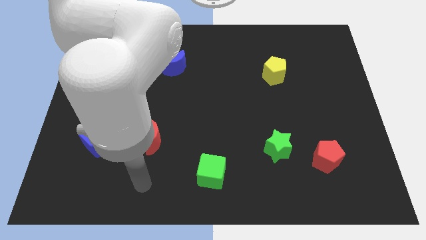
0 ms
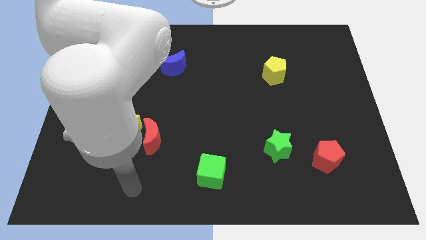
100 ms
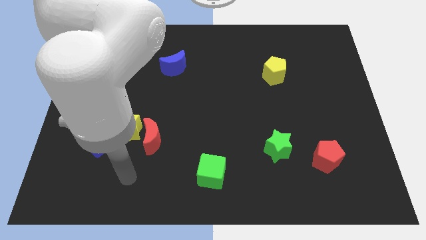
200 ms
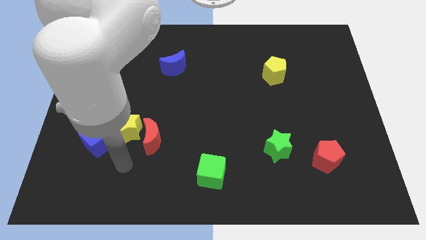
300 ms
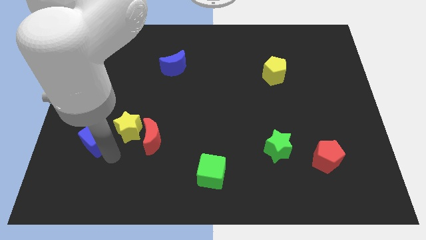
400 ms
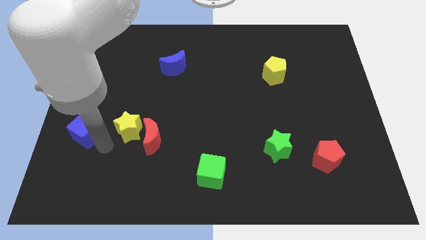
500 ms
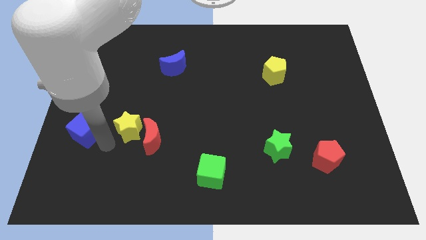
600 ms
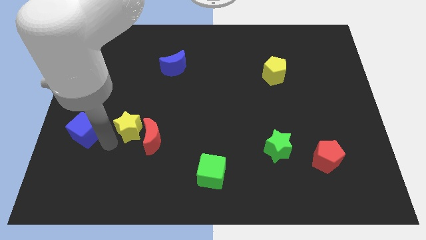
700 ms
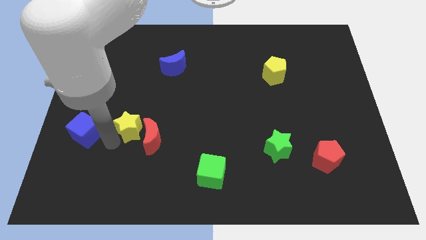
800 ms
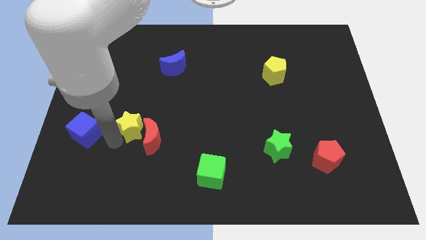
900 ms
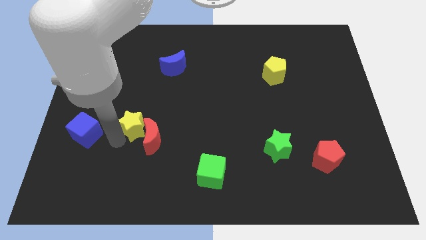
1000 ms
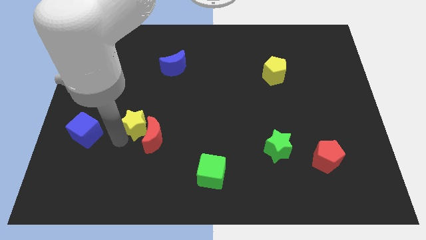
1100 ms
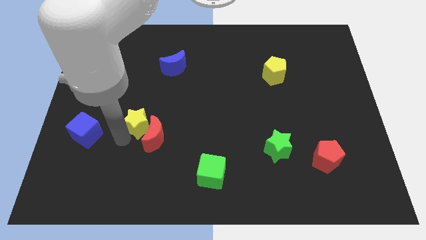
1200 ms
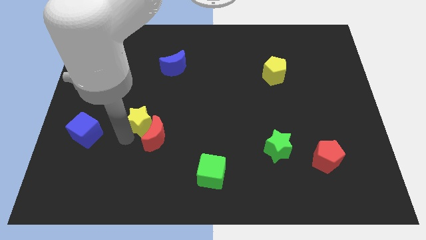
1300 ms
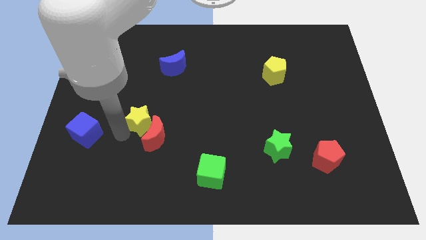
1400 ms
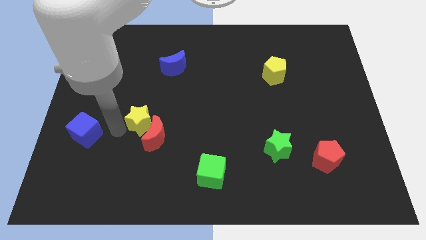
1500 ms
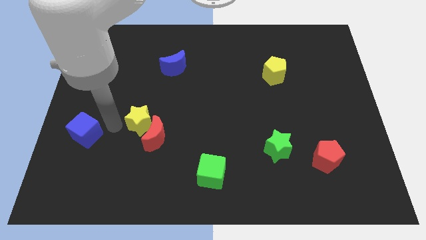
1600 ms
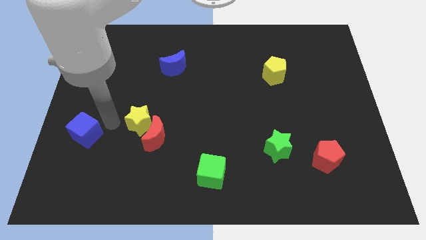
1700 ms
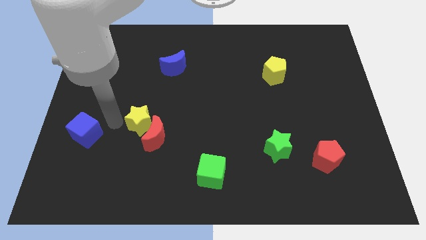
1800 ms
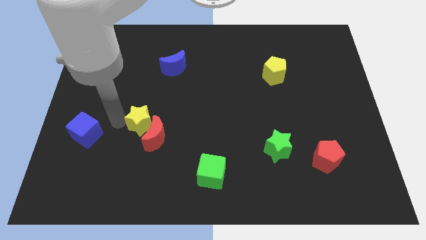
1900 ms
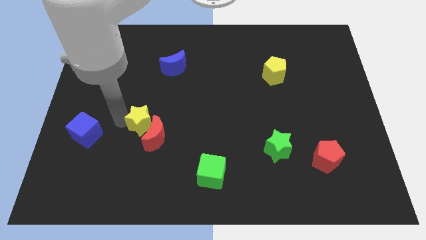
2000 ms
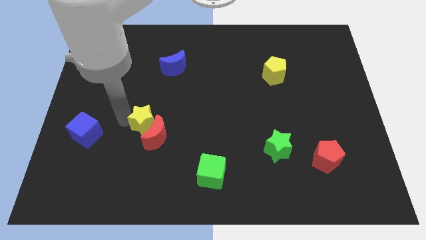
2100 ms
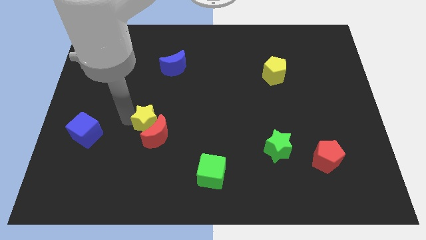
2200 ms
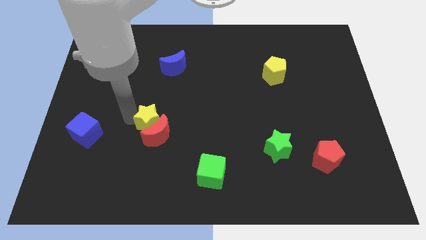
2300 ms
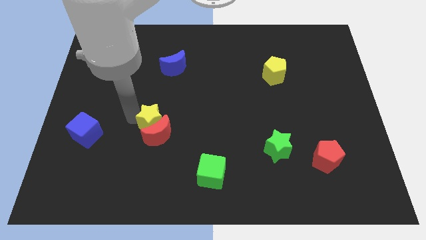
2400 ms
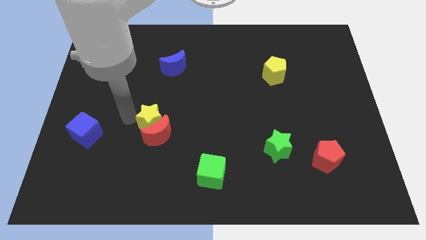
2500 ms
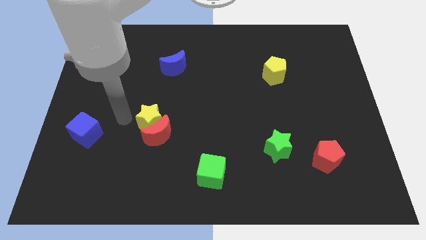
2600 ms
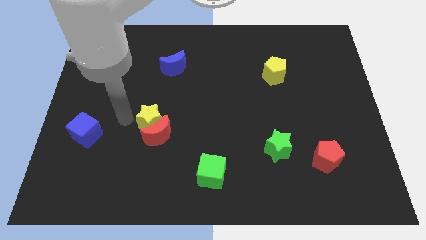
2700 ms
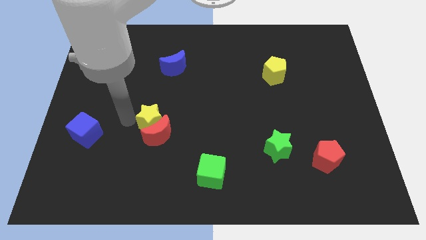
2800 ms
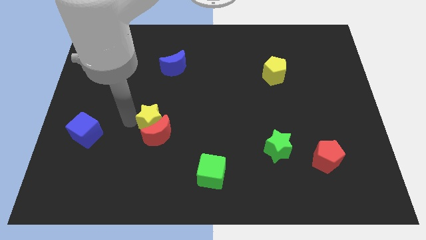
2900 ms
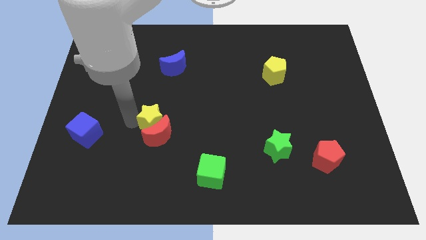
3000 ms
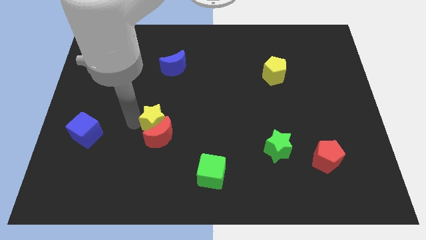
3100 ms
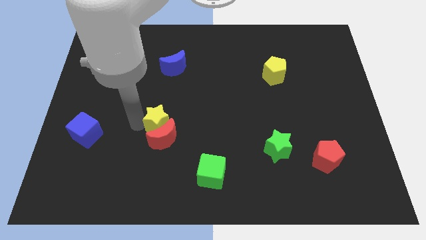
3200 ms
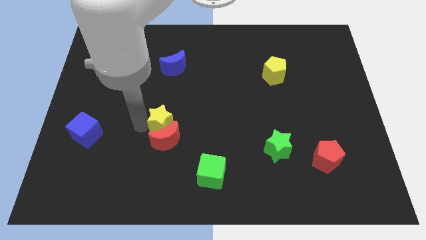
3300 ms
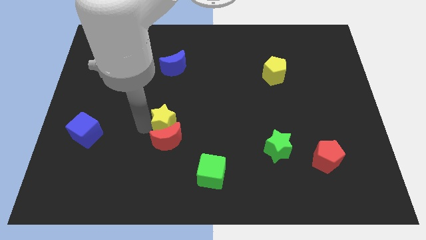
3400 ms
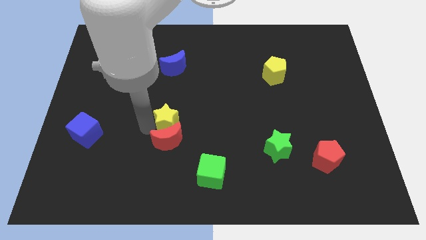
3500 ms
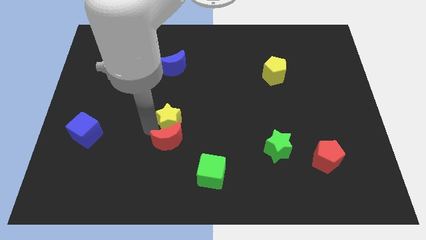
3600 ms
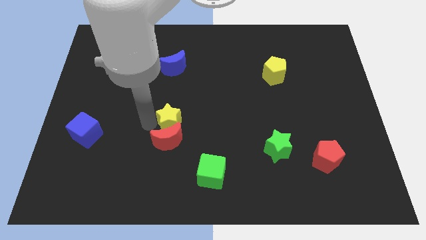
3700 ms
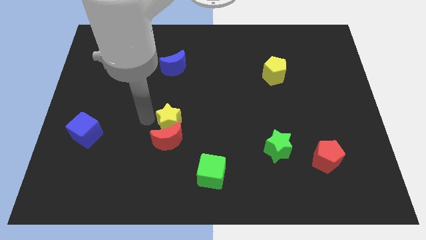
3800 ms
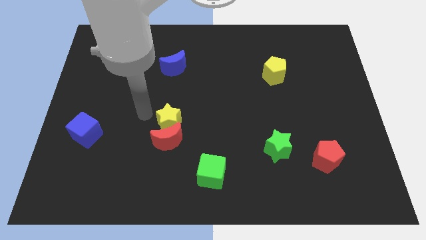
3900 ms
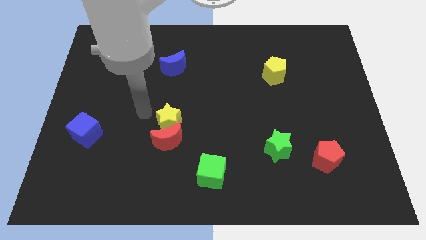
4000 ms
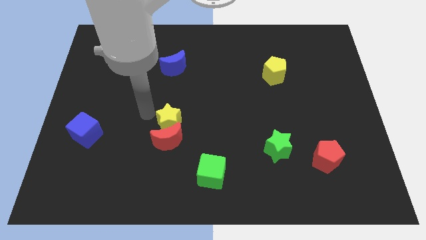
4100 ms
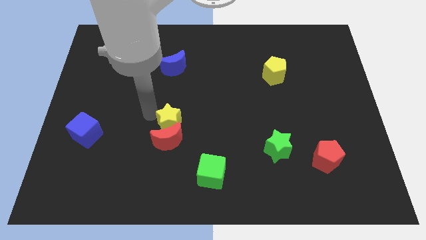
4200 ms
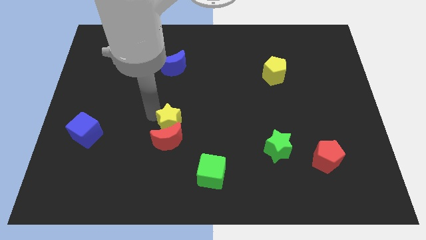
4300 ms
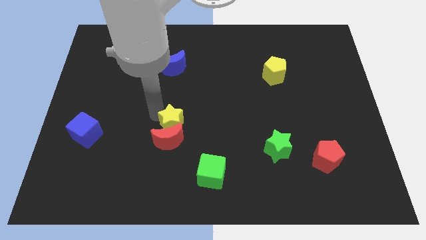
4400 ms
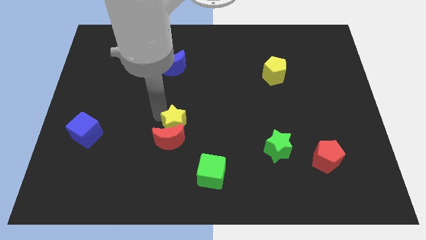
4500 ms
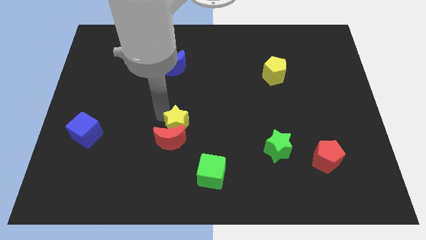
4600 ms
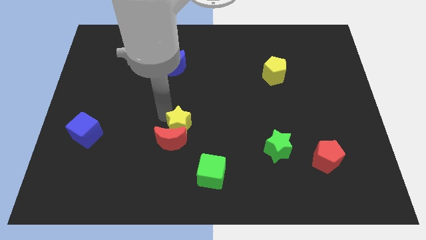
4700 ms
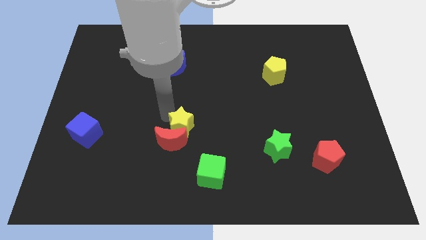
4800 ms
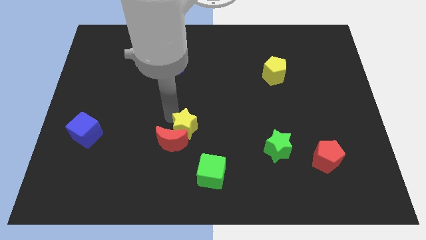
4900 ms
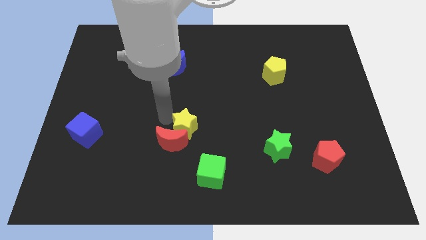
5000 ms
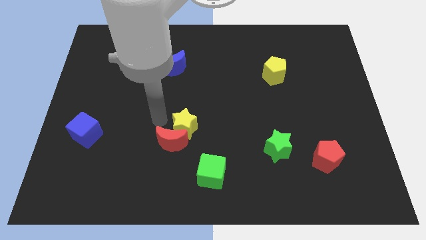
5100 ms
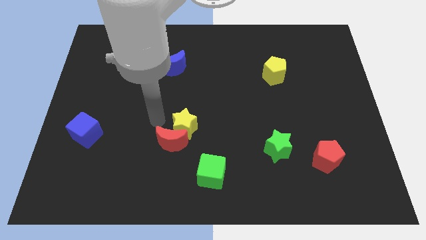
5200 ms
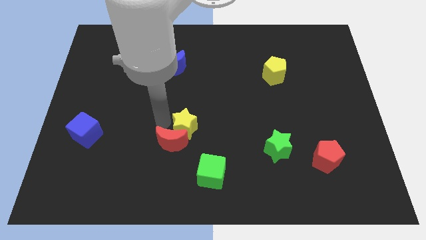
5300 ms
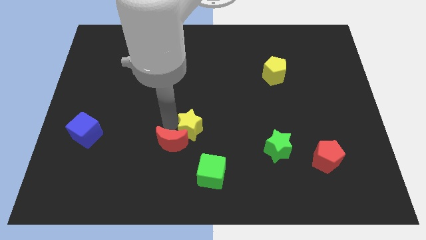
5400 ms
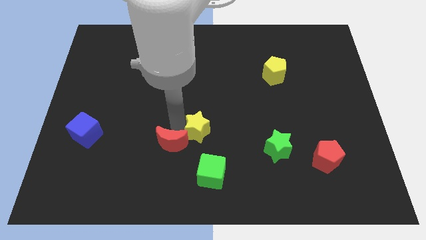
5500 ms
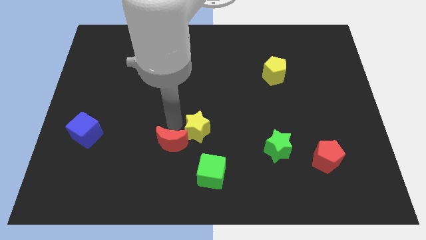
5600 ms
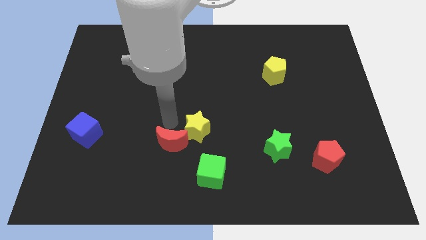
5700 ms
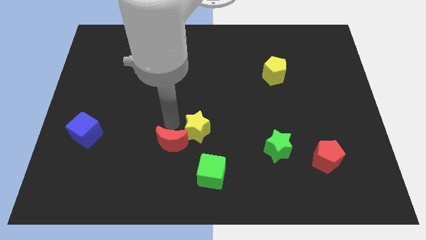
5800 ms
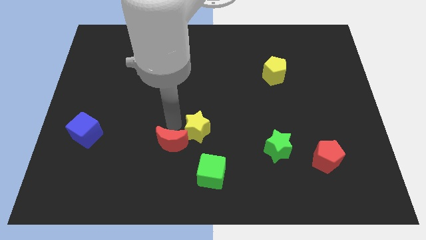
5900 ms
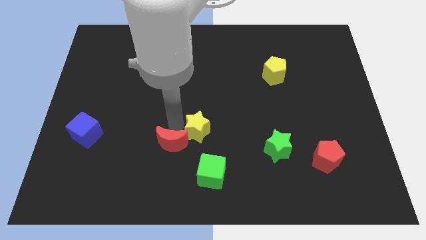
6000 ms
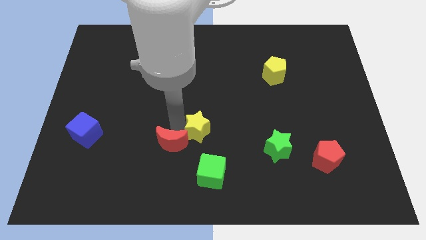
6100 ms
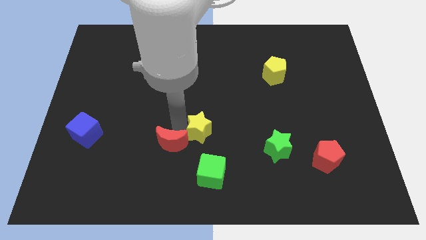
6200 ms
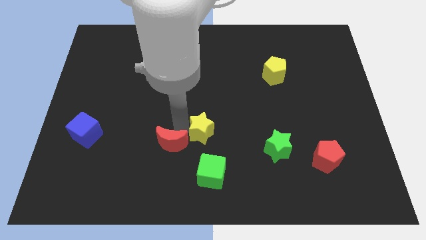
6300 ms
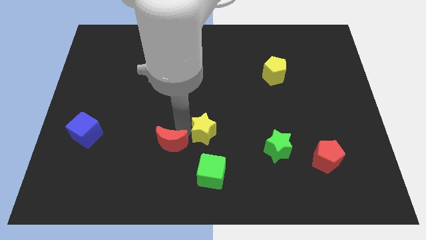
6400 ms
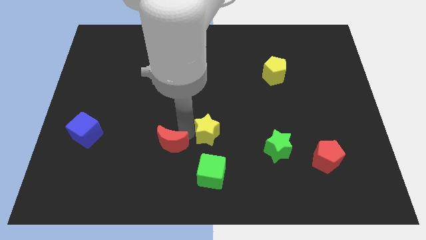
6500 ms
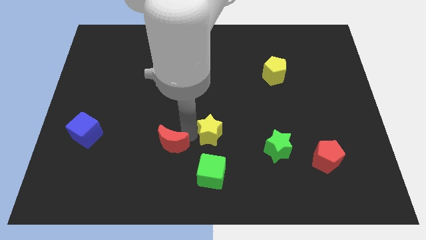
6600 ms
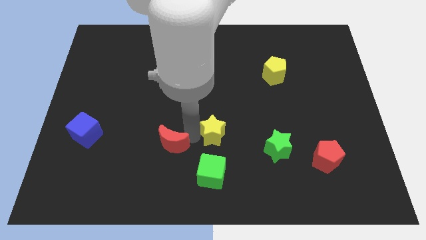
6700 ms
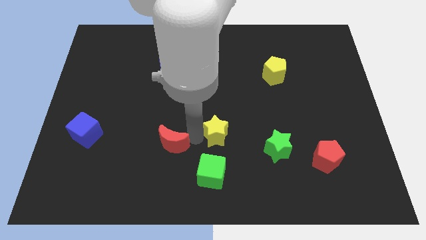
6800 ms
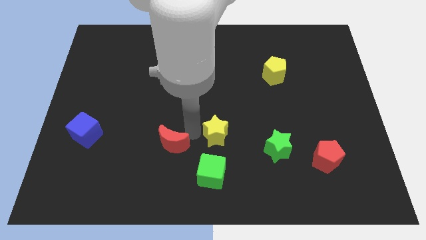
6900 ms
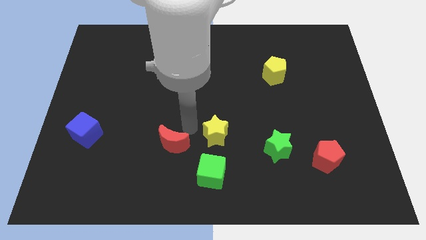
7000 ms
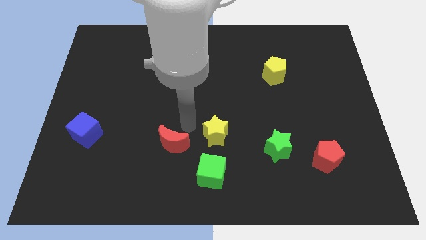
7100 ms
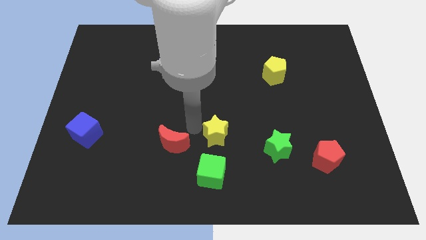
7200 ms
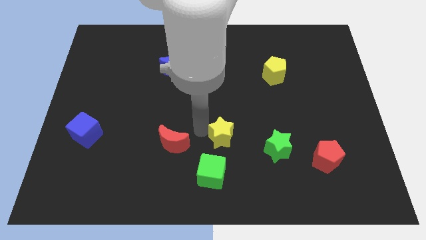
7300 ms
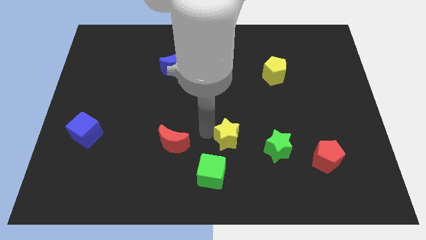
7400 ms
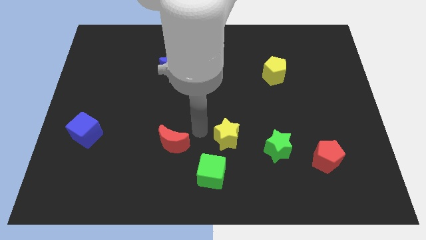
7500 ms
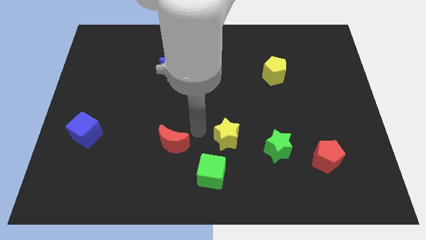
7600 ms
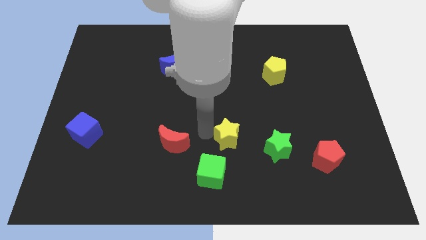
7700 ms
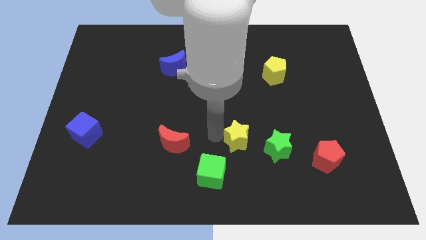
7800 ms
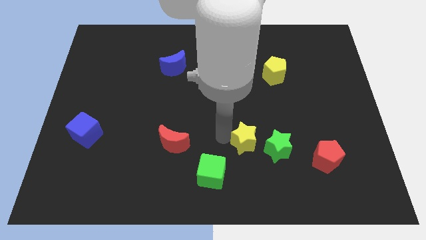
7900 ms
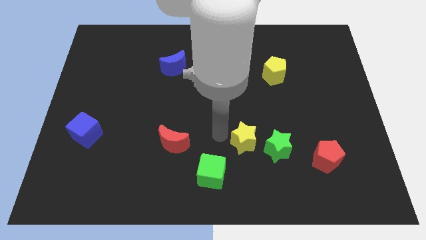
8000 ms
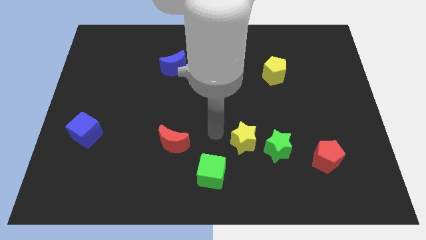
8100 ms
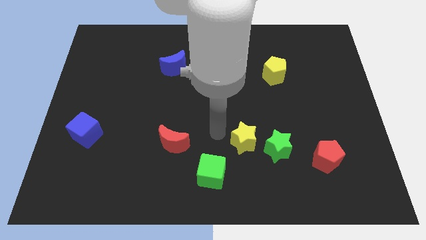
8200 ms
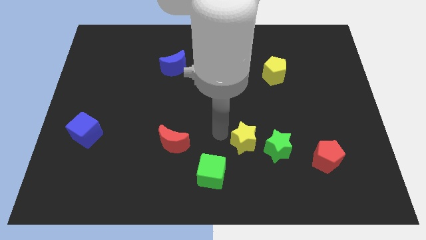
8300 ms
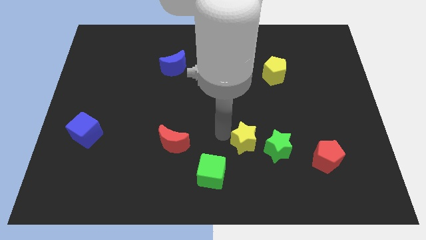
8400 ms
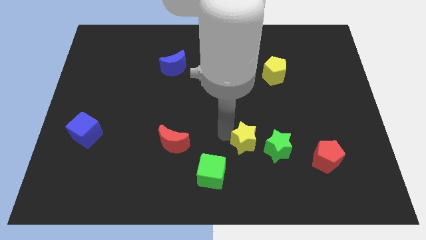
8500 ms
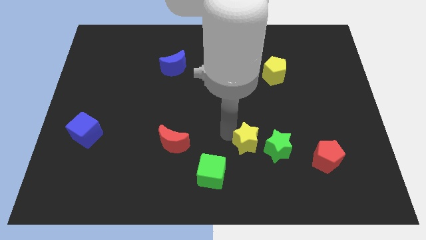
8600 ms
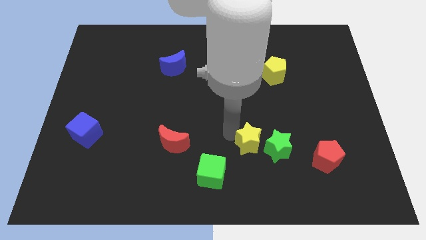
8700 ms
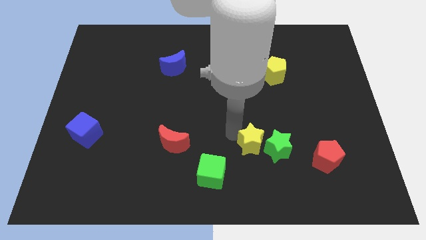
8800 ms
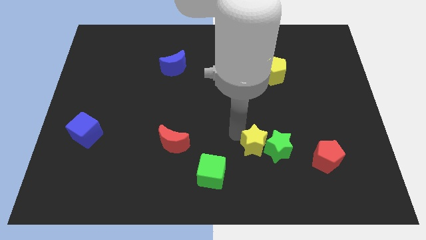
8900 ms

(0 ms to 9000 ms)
move the yellow star next to the green star
